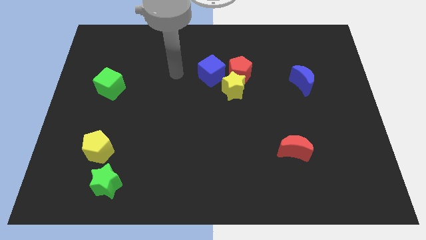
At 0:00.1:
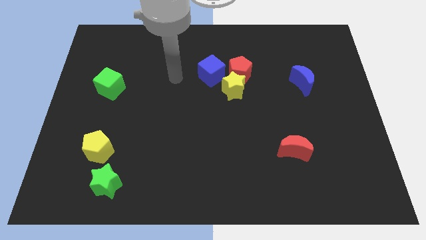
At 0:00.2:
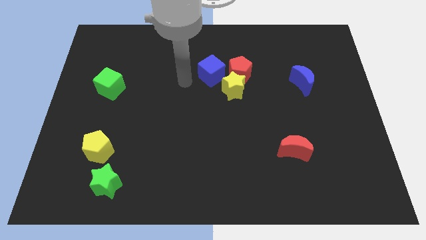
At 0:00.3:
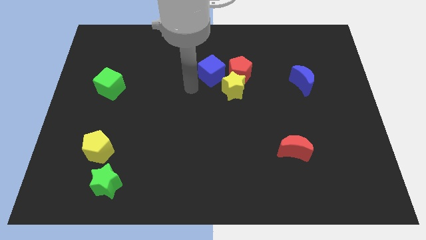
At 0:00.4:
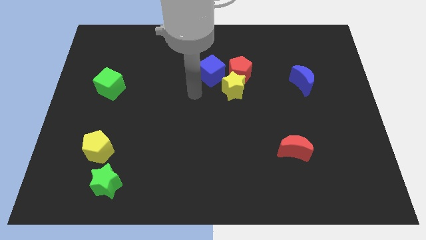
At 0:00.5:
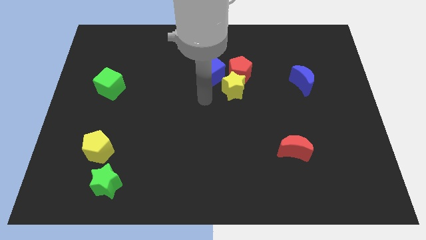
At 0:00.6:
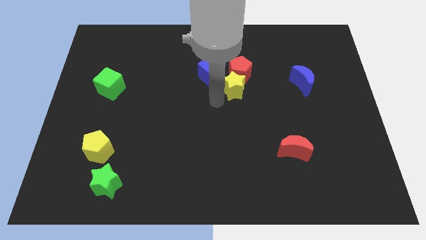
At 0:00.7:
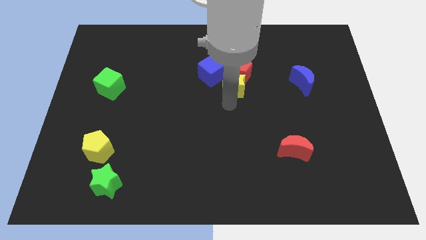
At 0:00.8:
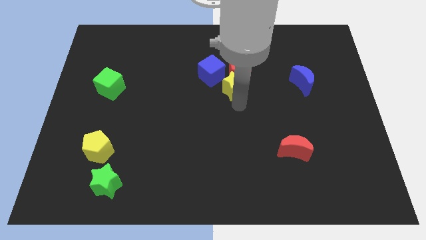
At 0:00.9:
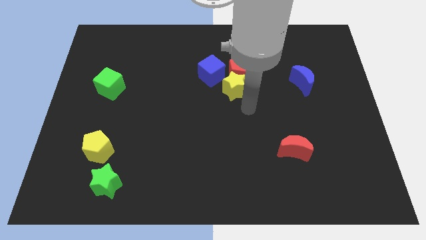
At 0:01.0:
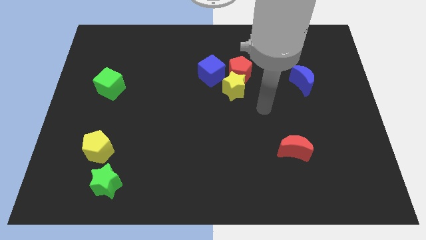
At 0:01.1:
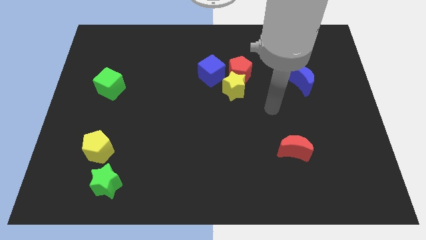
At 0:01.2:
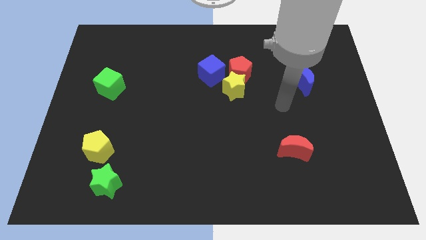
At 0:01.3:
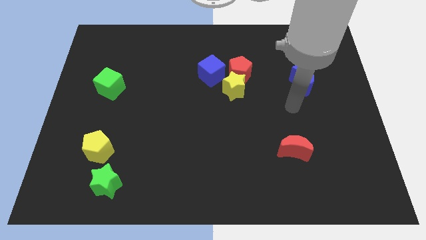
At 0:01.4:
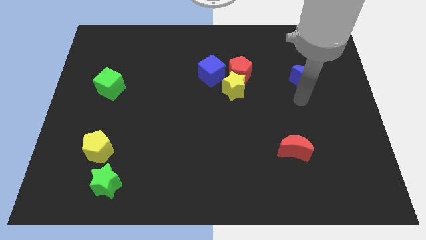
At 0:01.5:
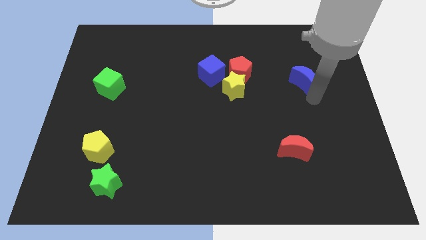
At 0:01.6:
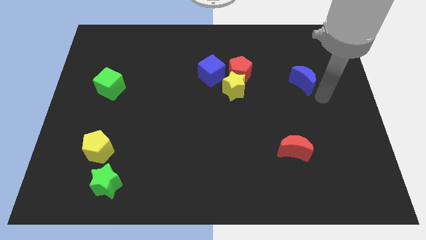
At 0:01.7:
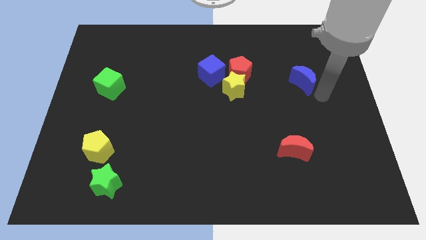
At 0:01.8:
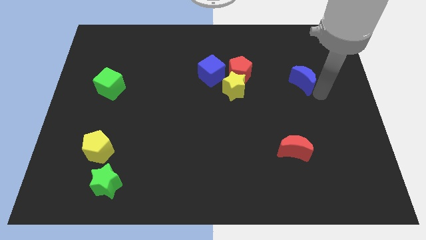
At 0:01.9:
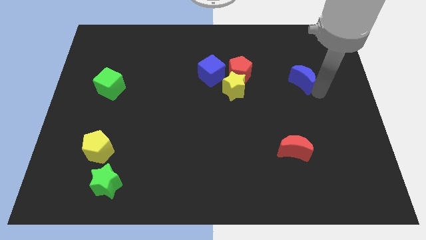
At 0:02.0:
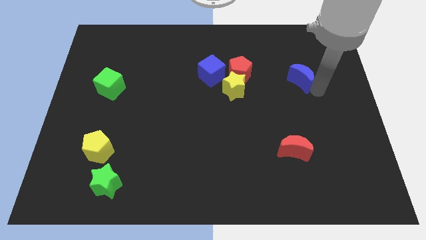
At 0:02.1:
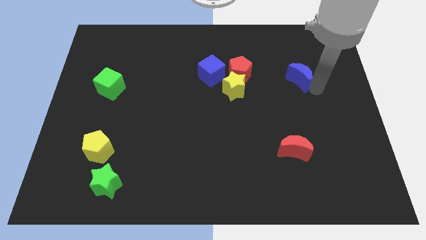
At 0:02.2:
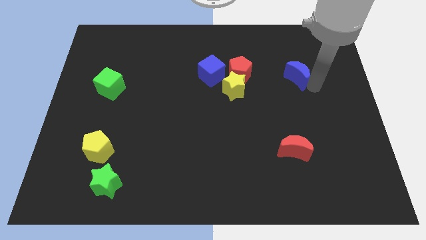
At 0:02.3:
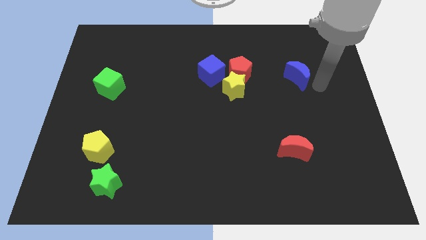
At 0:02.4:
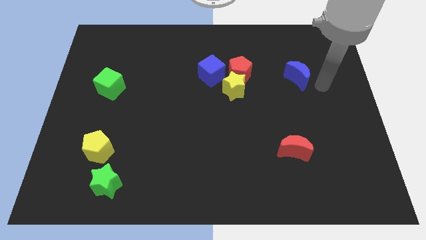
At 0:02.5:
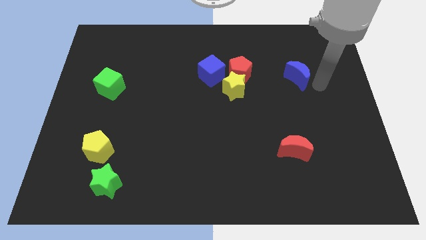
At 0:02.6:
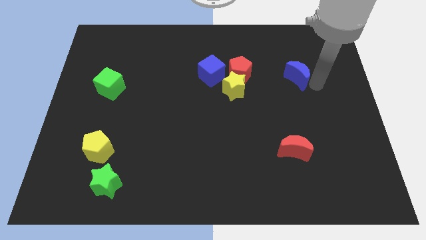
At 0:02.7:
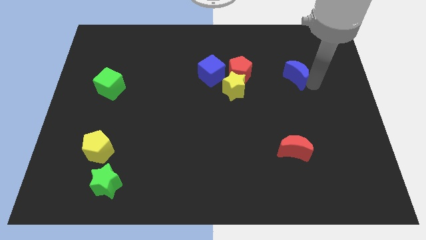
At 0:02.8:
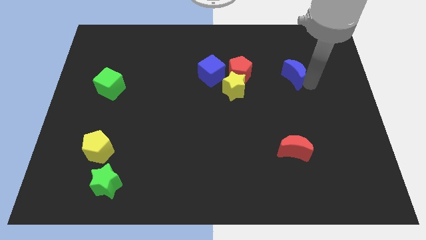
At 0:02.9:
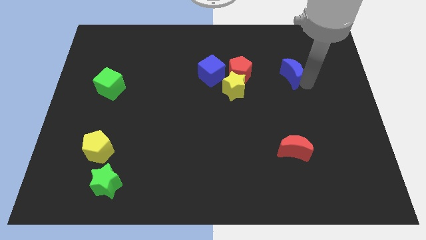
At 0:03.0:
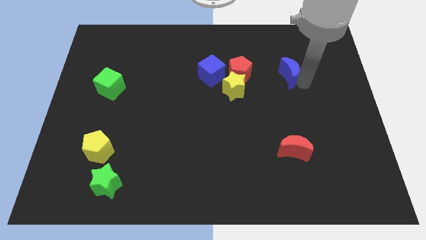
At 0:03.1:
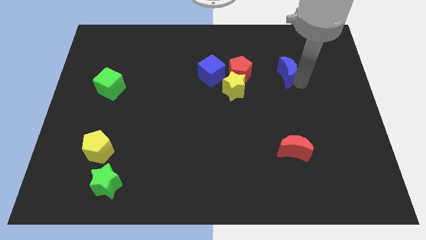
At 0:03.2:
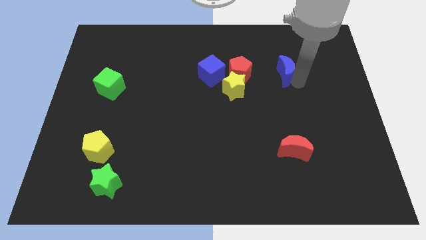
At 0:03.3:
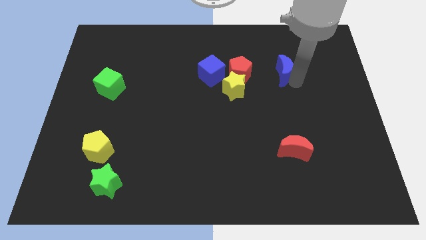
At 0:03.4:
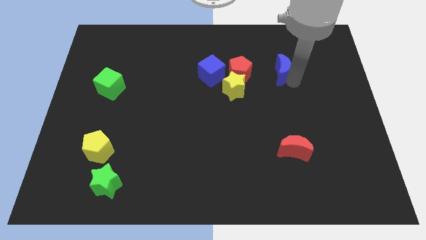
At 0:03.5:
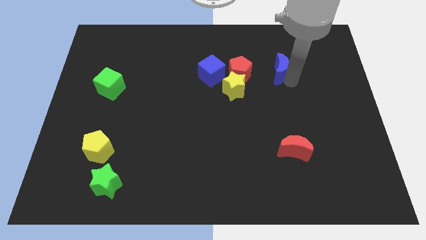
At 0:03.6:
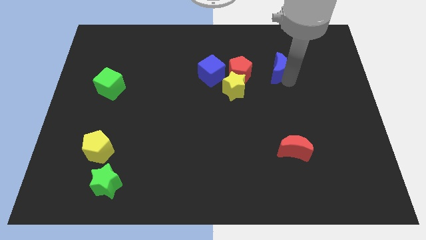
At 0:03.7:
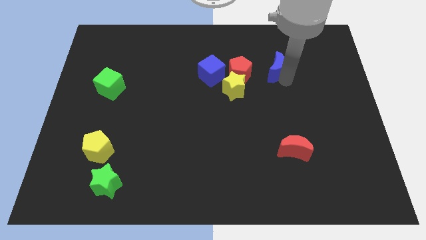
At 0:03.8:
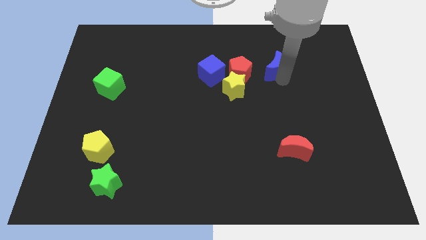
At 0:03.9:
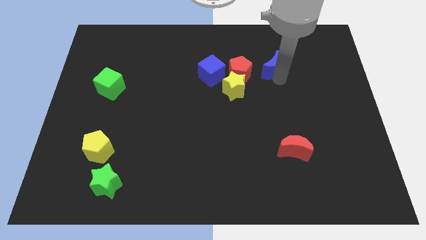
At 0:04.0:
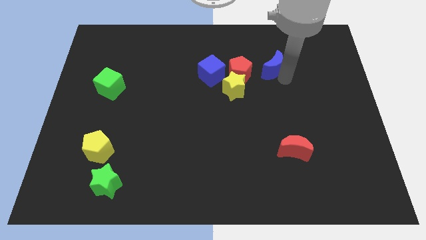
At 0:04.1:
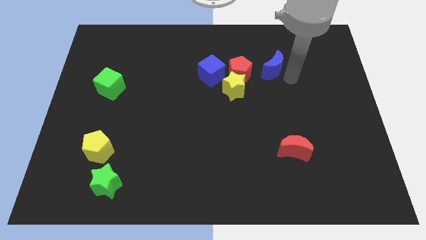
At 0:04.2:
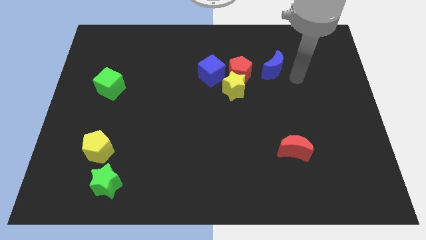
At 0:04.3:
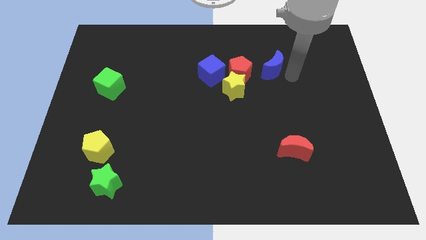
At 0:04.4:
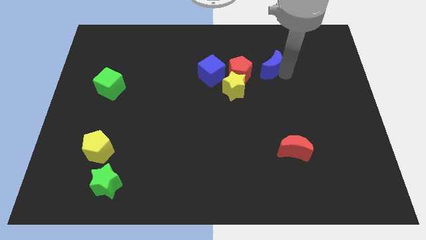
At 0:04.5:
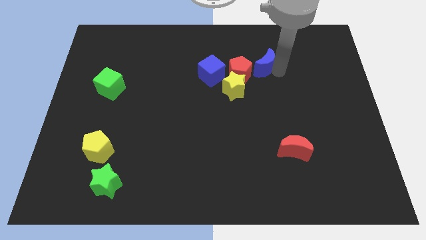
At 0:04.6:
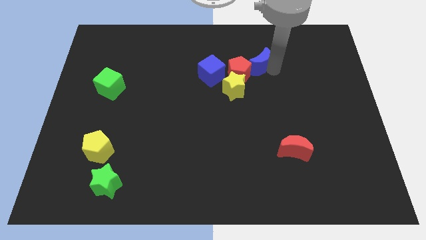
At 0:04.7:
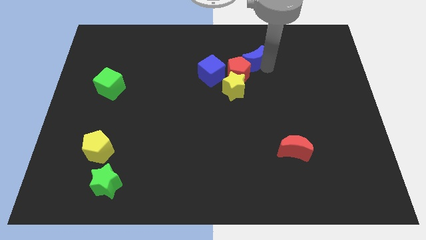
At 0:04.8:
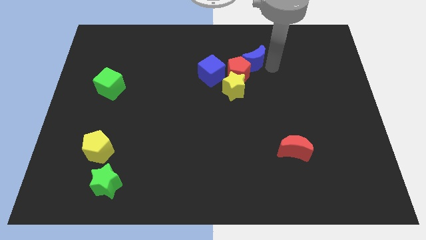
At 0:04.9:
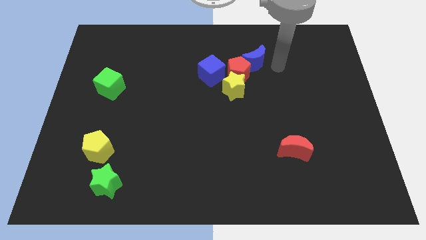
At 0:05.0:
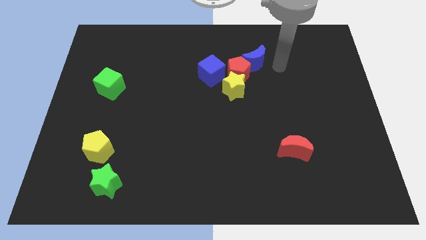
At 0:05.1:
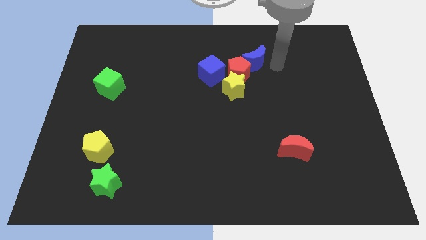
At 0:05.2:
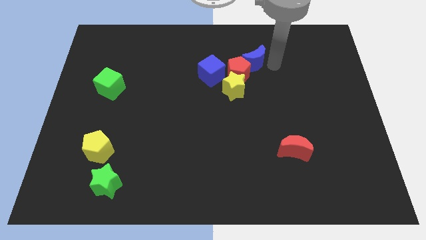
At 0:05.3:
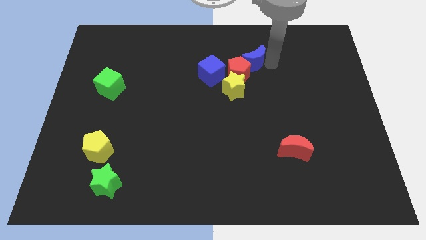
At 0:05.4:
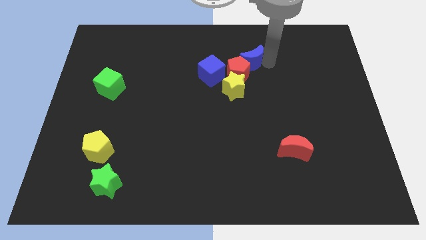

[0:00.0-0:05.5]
move the blue moon to the top of the yellow star

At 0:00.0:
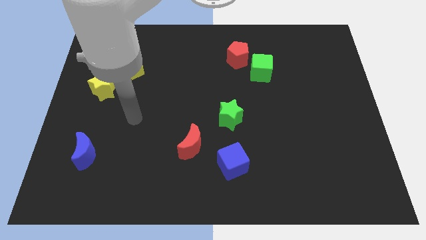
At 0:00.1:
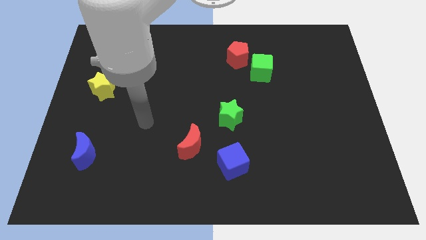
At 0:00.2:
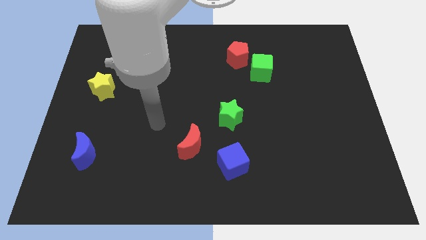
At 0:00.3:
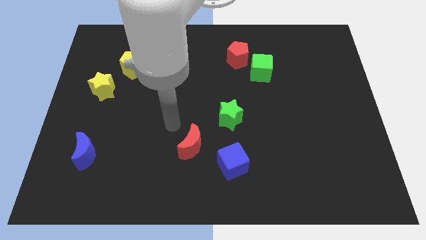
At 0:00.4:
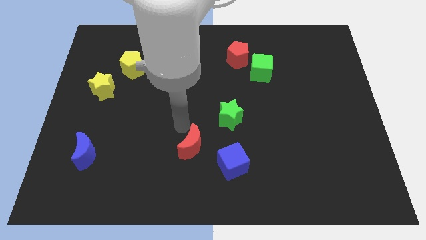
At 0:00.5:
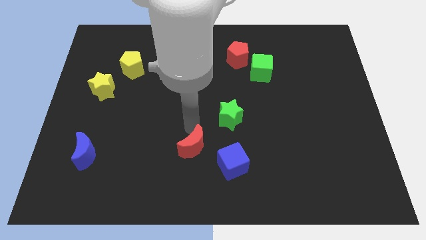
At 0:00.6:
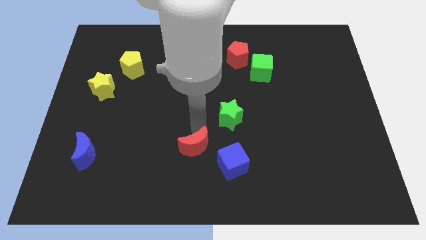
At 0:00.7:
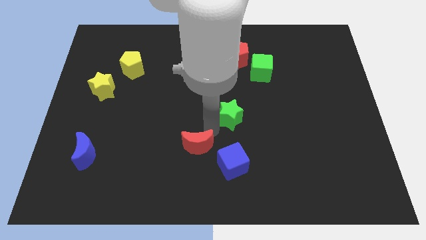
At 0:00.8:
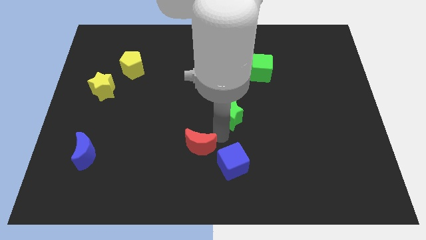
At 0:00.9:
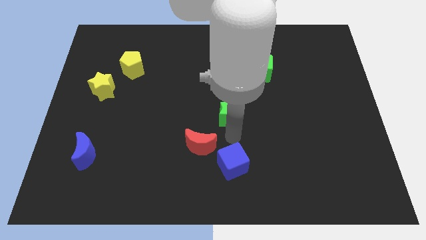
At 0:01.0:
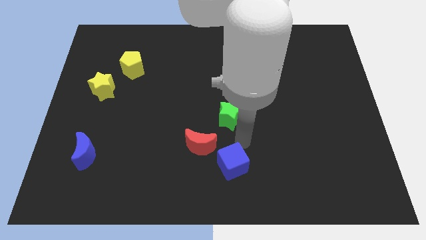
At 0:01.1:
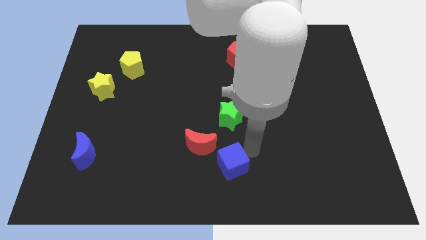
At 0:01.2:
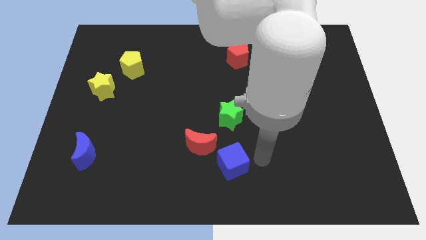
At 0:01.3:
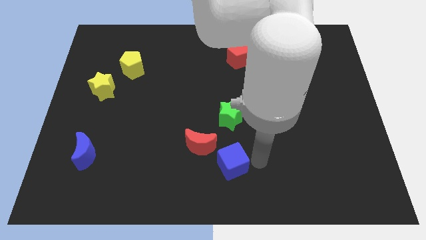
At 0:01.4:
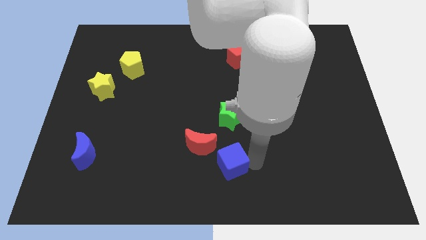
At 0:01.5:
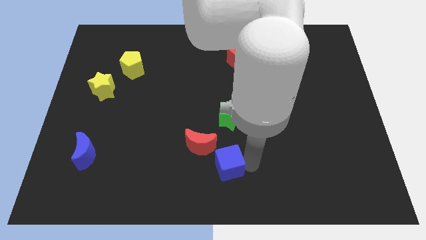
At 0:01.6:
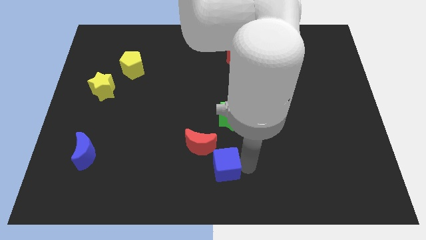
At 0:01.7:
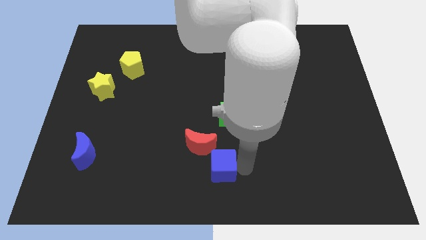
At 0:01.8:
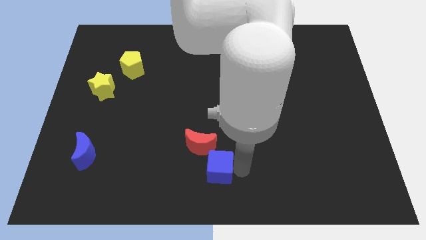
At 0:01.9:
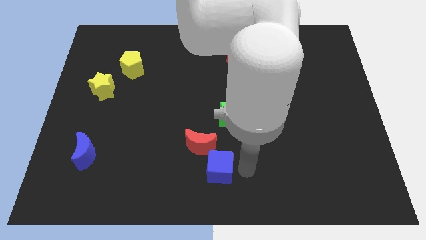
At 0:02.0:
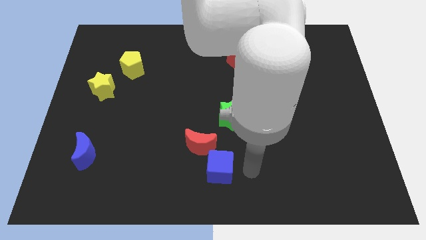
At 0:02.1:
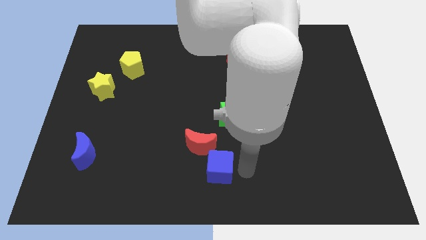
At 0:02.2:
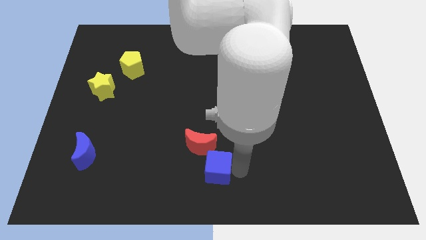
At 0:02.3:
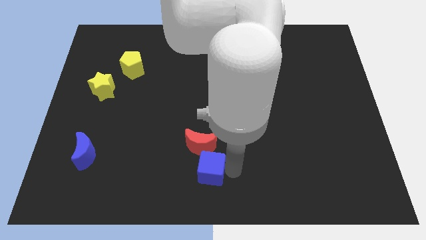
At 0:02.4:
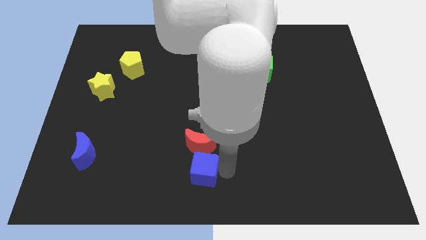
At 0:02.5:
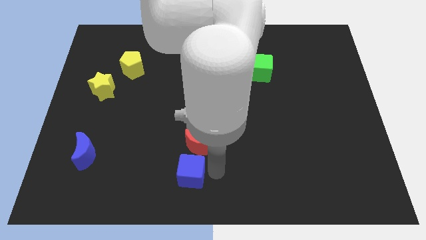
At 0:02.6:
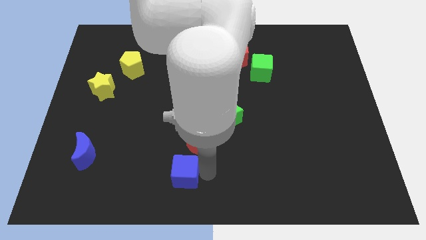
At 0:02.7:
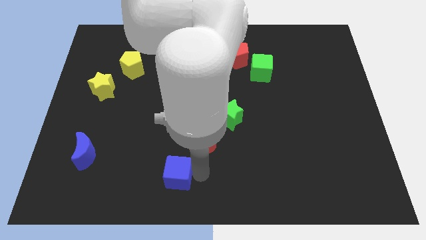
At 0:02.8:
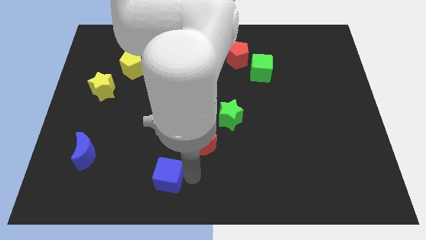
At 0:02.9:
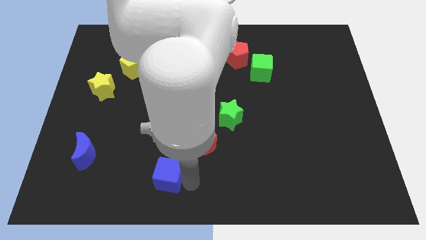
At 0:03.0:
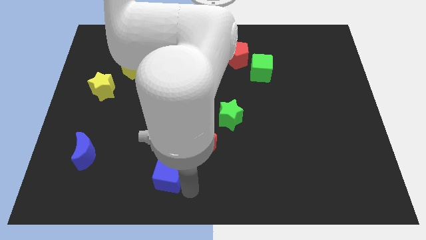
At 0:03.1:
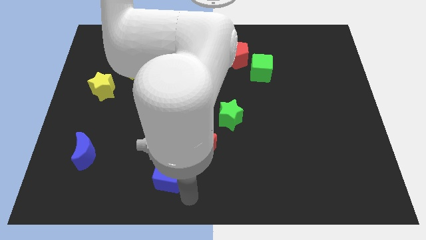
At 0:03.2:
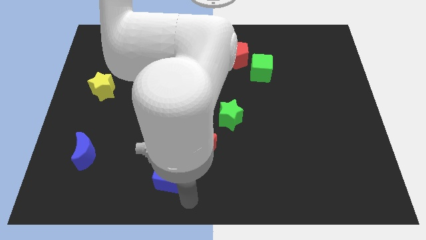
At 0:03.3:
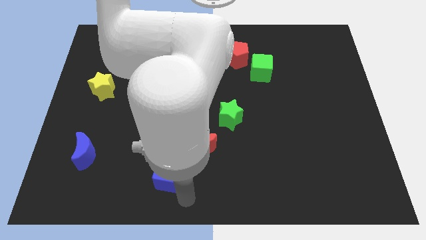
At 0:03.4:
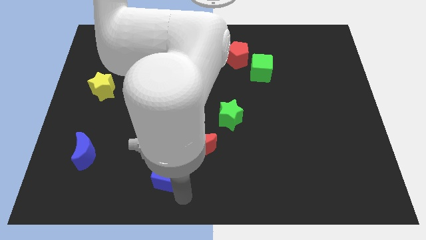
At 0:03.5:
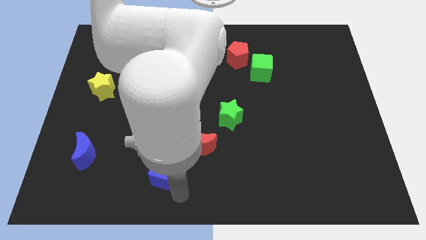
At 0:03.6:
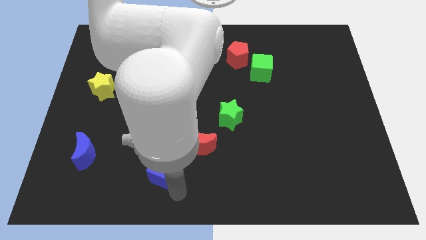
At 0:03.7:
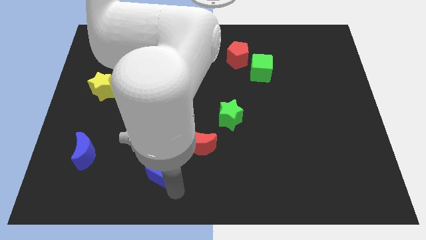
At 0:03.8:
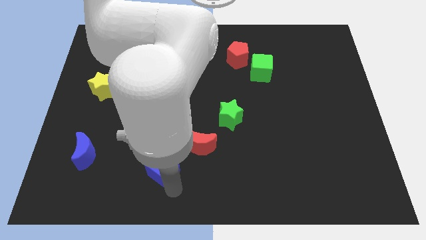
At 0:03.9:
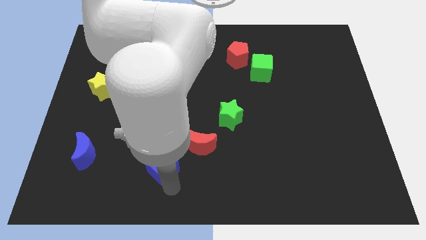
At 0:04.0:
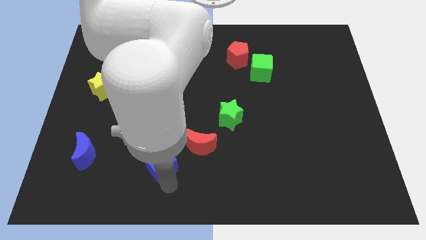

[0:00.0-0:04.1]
put the blue cube to the left side of the red moon
